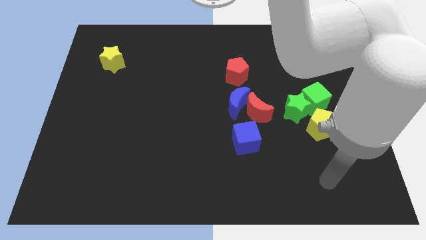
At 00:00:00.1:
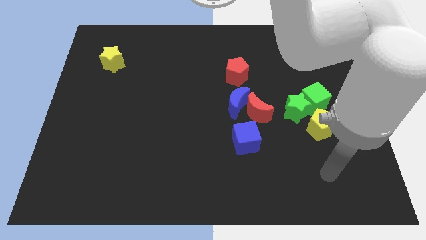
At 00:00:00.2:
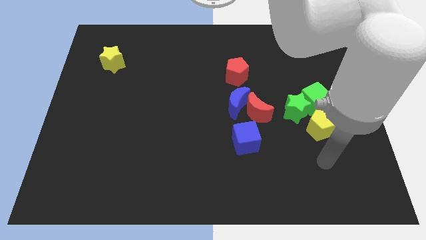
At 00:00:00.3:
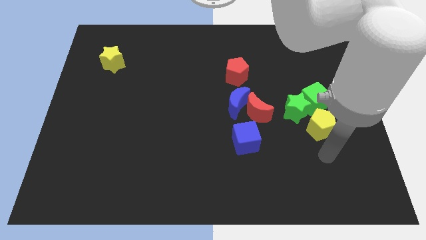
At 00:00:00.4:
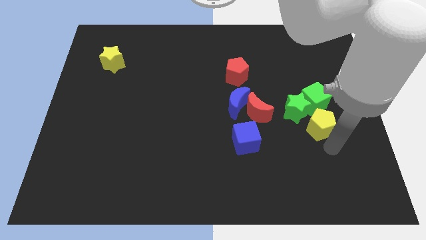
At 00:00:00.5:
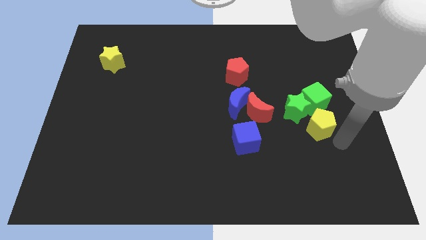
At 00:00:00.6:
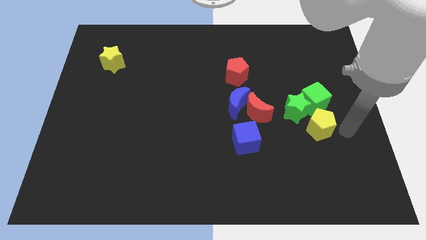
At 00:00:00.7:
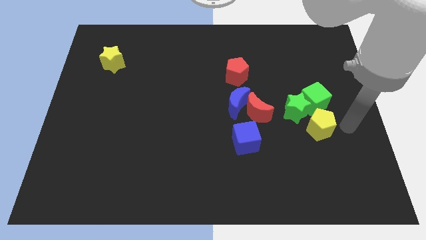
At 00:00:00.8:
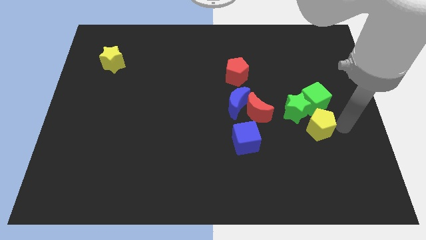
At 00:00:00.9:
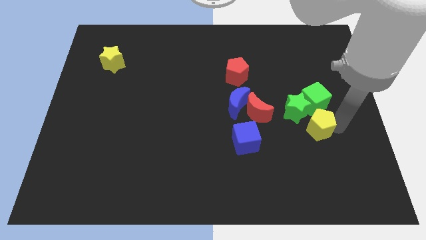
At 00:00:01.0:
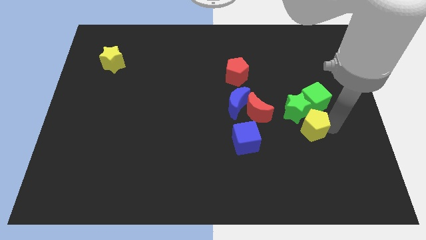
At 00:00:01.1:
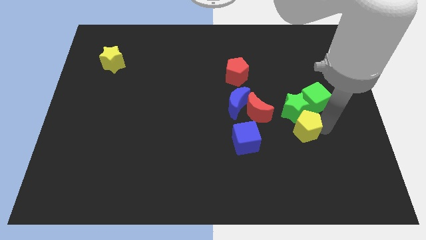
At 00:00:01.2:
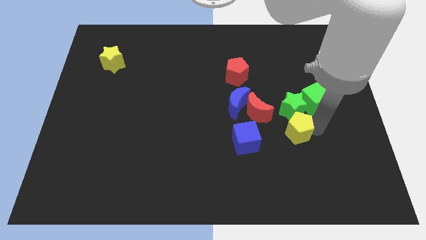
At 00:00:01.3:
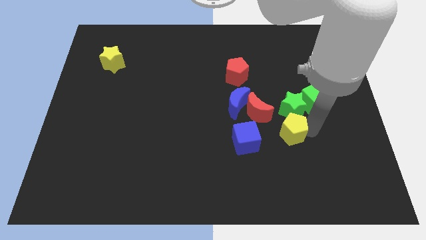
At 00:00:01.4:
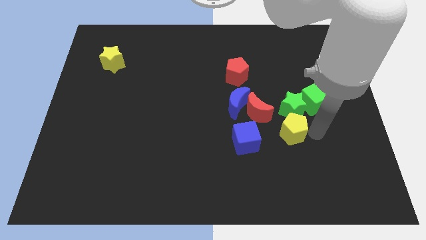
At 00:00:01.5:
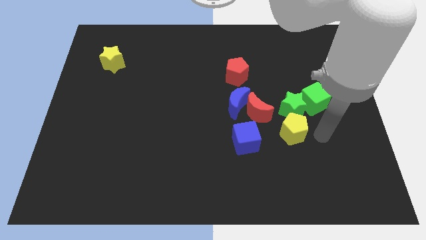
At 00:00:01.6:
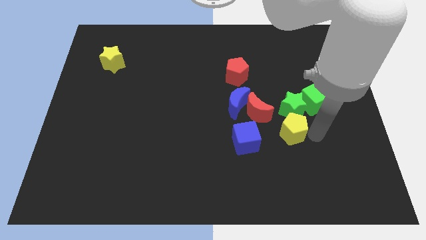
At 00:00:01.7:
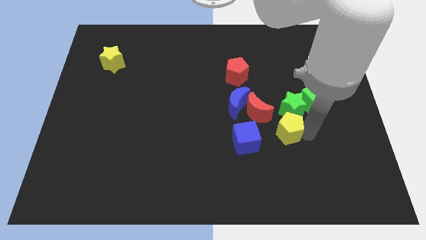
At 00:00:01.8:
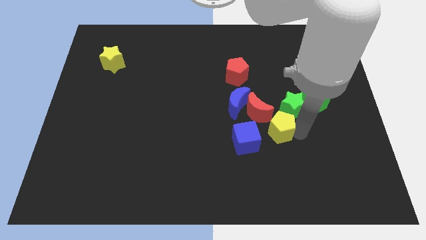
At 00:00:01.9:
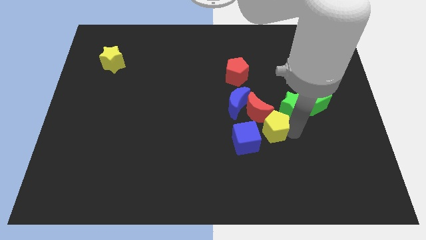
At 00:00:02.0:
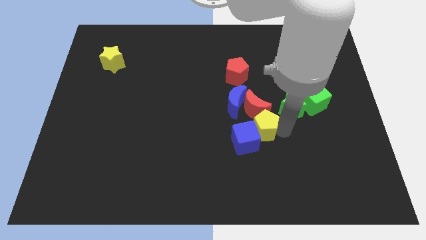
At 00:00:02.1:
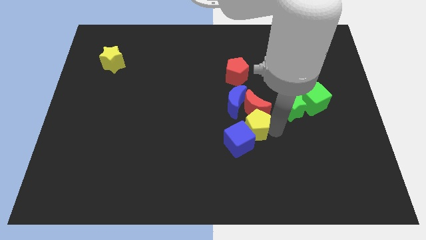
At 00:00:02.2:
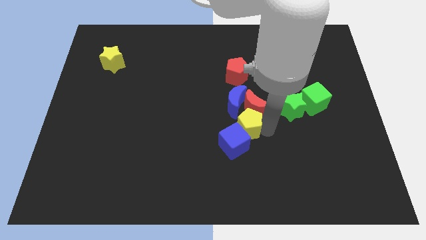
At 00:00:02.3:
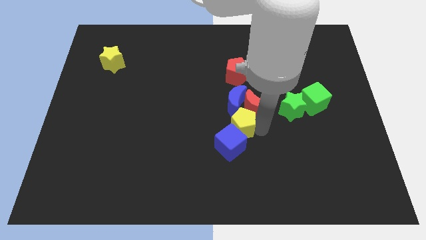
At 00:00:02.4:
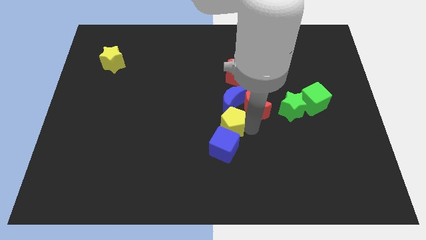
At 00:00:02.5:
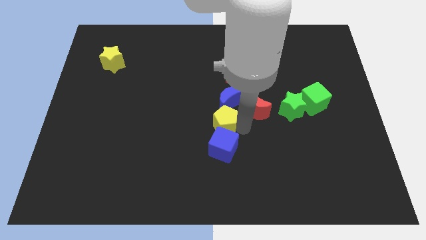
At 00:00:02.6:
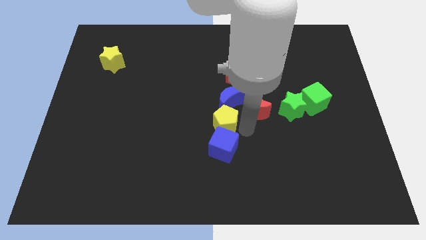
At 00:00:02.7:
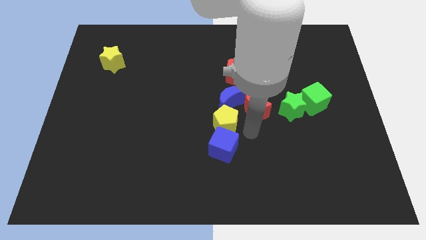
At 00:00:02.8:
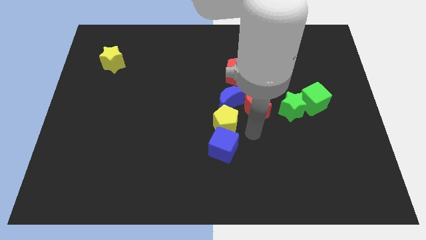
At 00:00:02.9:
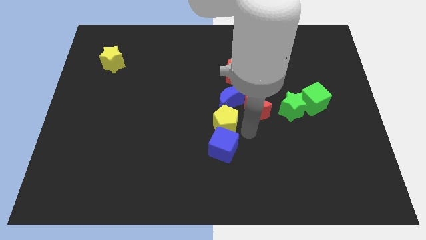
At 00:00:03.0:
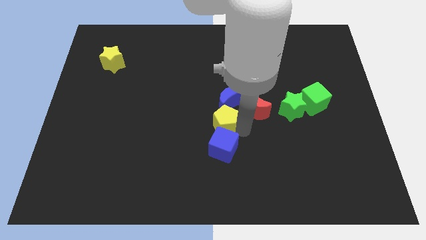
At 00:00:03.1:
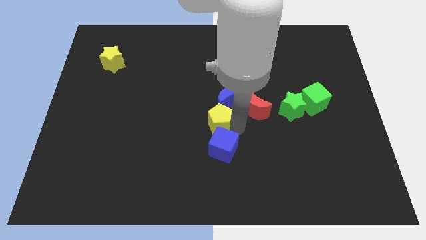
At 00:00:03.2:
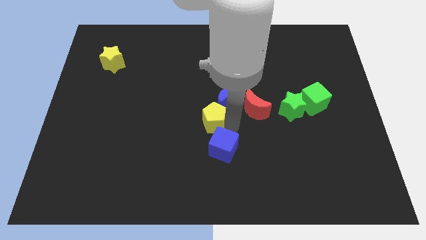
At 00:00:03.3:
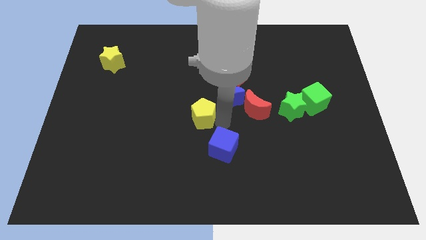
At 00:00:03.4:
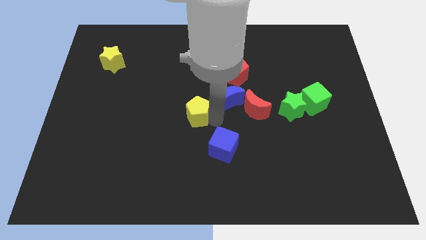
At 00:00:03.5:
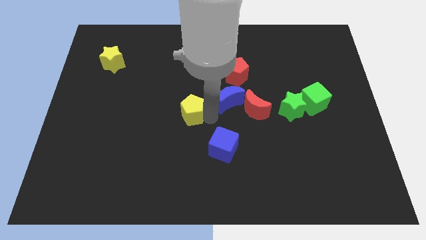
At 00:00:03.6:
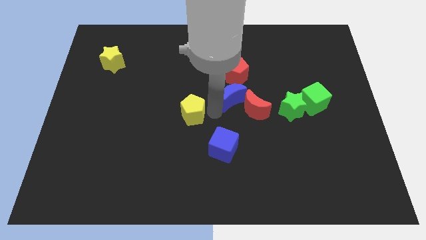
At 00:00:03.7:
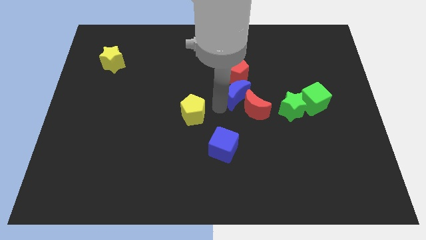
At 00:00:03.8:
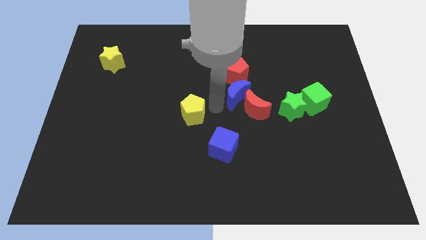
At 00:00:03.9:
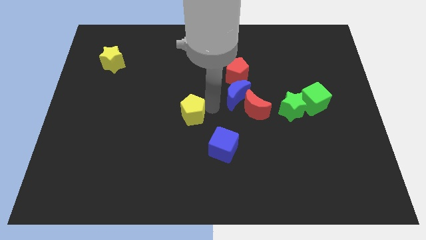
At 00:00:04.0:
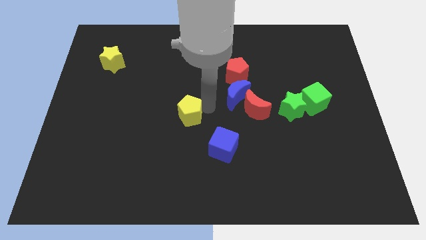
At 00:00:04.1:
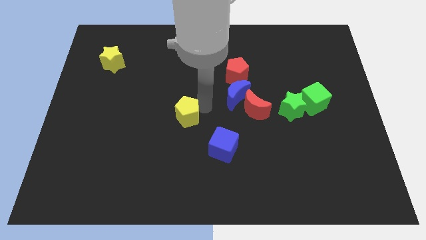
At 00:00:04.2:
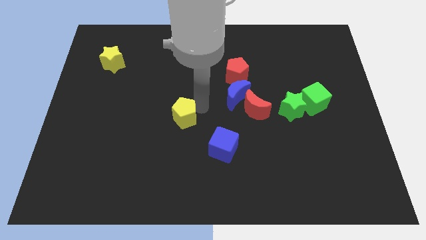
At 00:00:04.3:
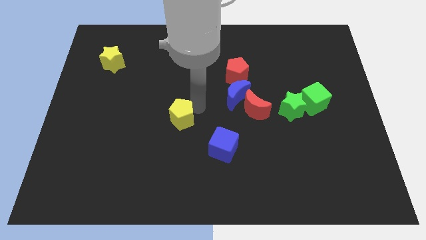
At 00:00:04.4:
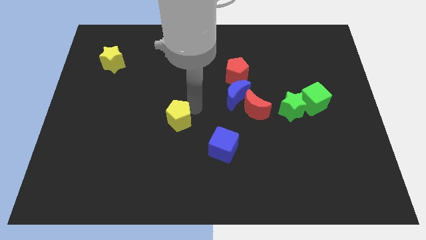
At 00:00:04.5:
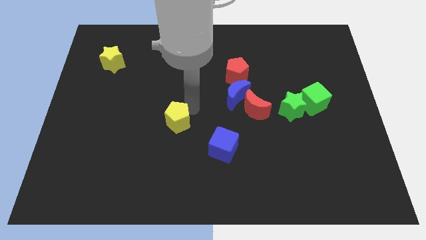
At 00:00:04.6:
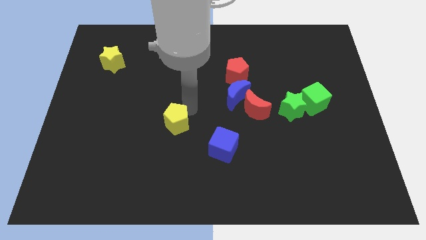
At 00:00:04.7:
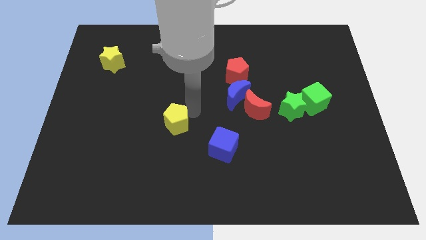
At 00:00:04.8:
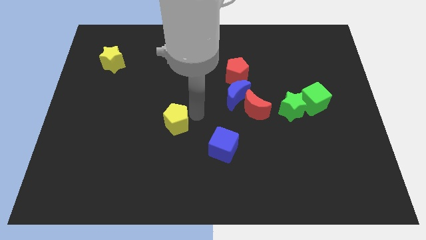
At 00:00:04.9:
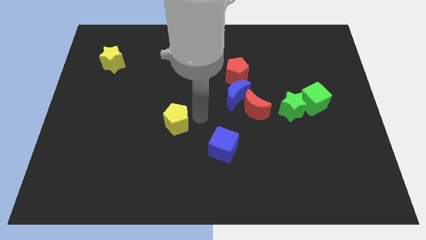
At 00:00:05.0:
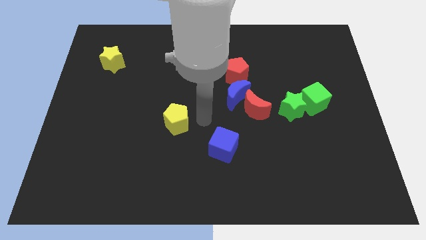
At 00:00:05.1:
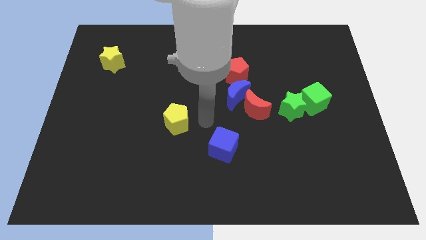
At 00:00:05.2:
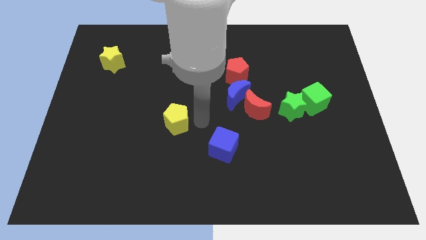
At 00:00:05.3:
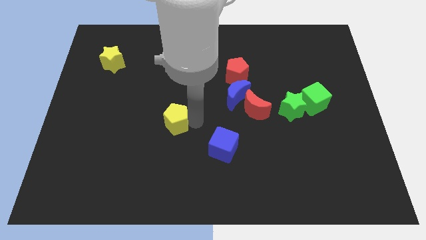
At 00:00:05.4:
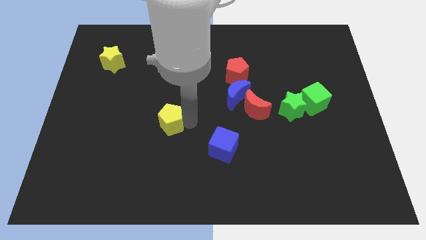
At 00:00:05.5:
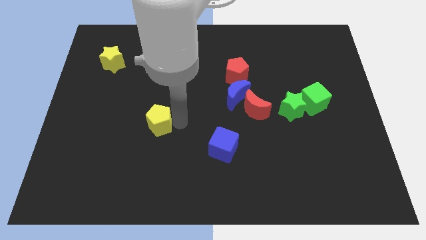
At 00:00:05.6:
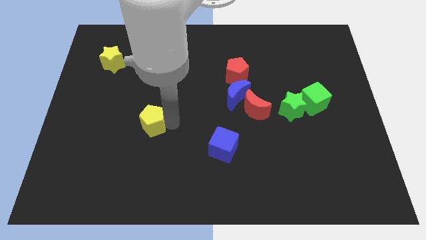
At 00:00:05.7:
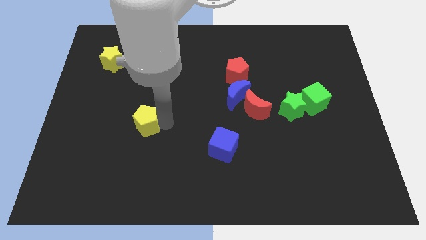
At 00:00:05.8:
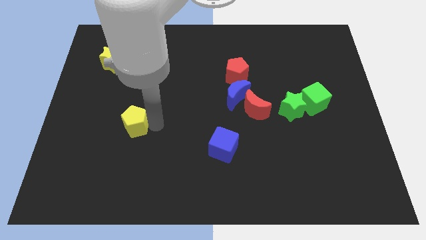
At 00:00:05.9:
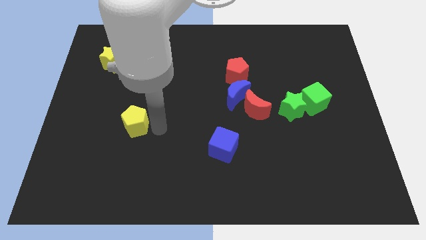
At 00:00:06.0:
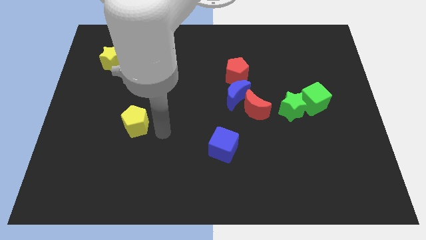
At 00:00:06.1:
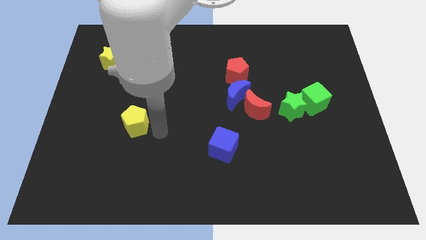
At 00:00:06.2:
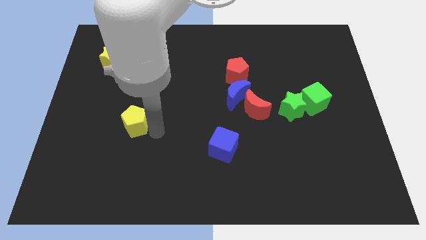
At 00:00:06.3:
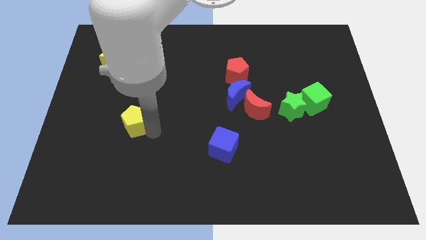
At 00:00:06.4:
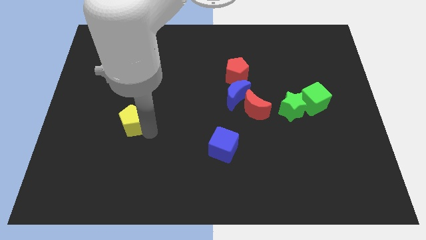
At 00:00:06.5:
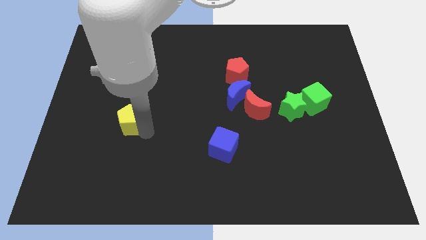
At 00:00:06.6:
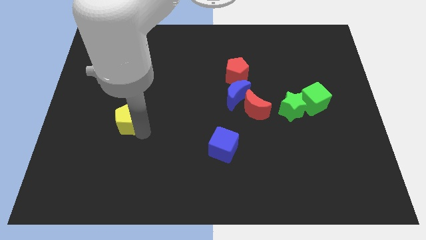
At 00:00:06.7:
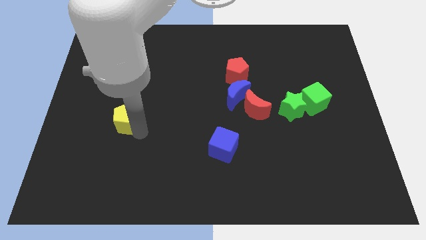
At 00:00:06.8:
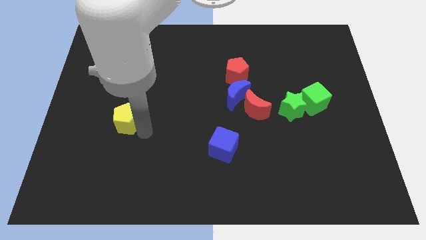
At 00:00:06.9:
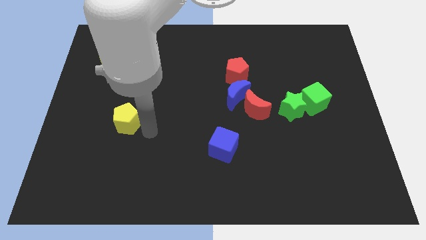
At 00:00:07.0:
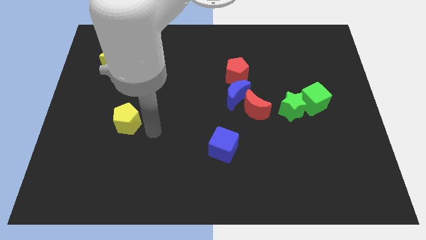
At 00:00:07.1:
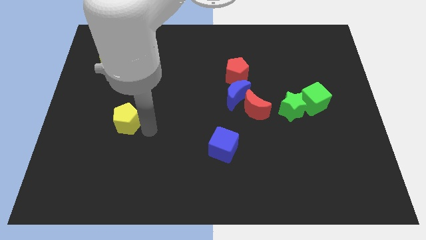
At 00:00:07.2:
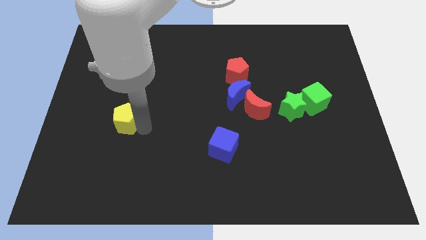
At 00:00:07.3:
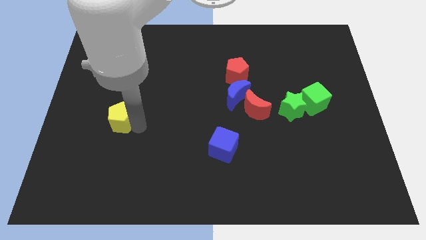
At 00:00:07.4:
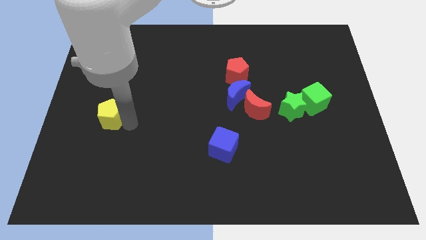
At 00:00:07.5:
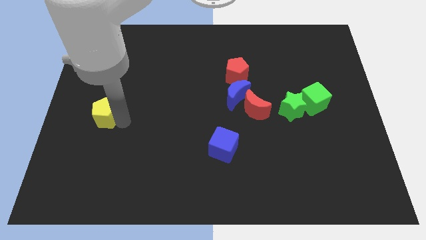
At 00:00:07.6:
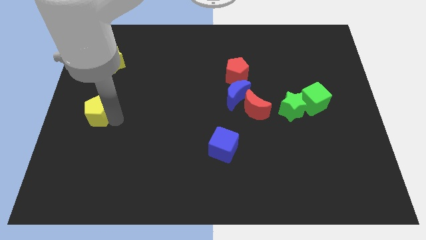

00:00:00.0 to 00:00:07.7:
put the yellow pentagon to the left side of the board
